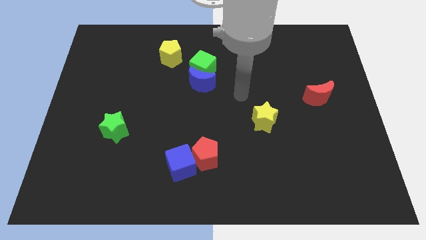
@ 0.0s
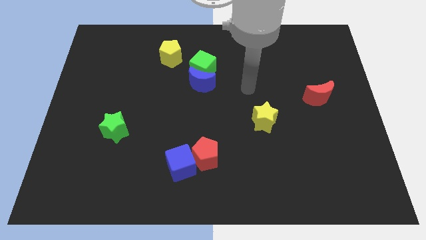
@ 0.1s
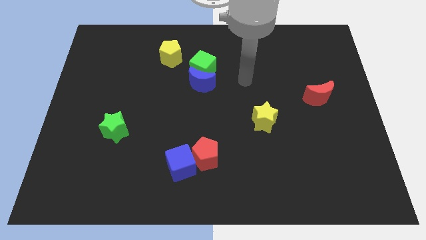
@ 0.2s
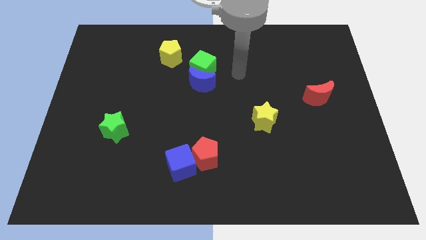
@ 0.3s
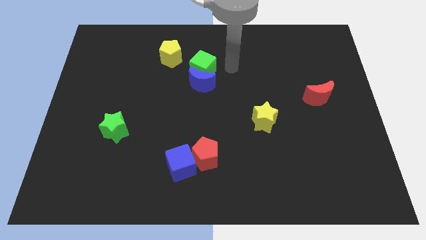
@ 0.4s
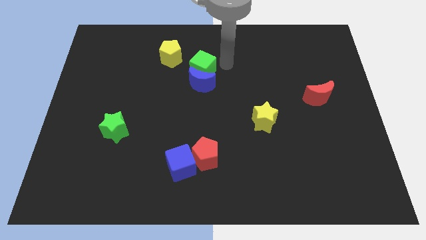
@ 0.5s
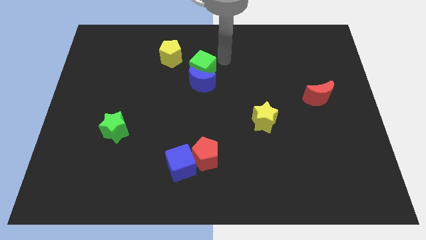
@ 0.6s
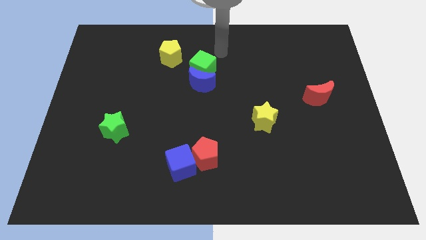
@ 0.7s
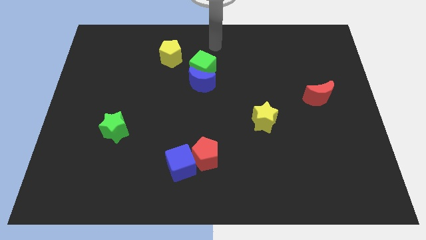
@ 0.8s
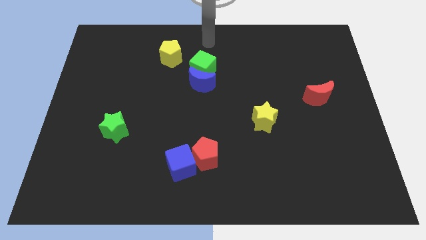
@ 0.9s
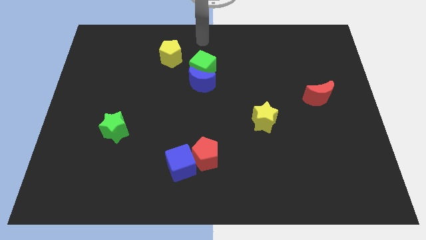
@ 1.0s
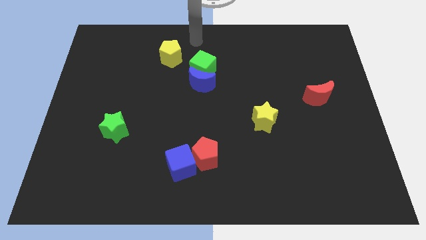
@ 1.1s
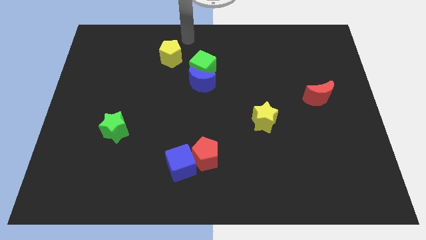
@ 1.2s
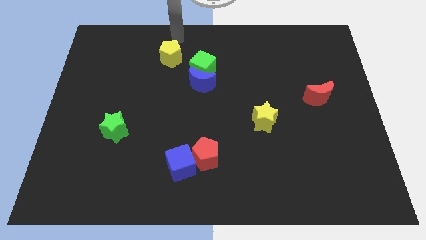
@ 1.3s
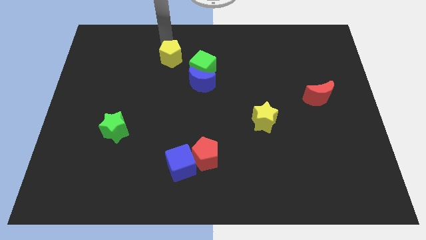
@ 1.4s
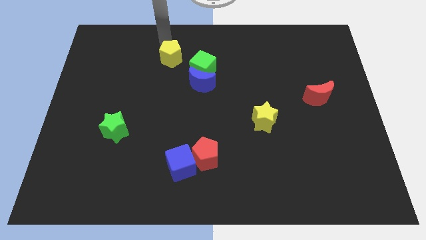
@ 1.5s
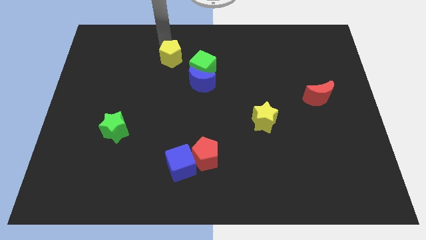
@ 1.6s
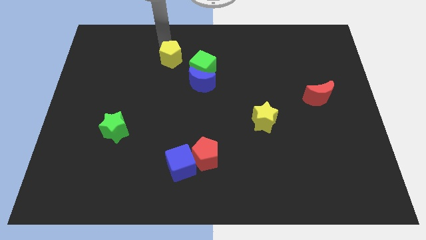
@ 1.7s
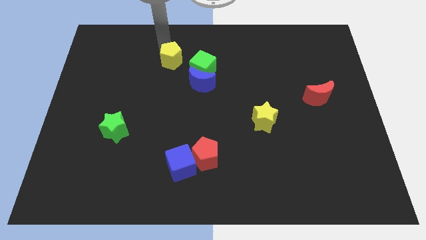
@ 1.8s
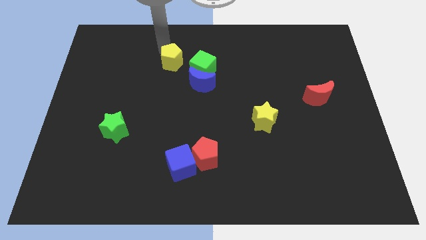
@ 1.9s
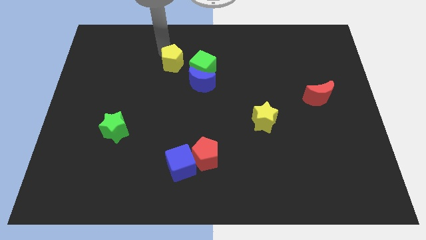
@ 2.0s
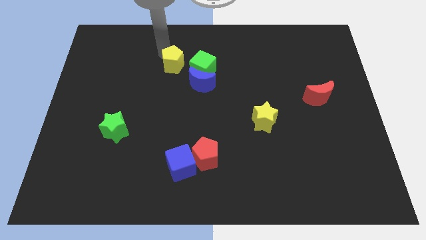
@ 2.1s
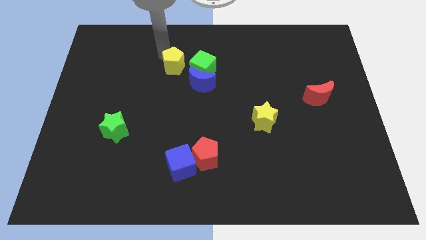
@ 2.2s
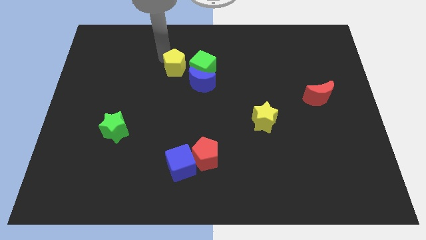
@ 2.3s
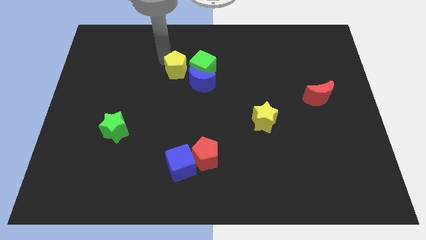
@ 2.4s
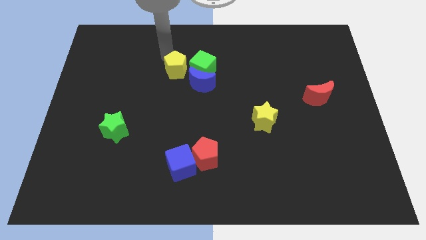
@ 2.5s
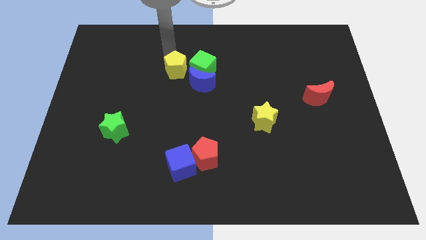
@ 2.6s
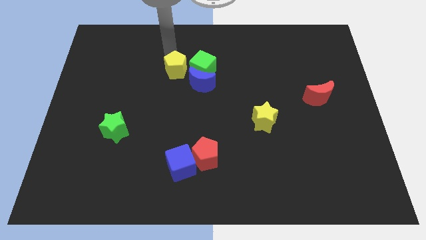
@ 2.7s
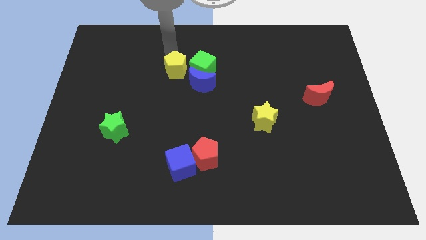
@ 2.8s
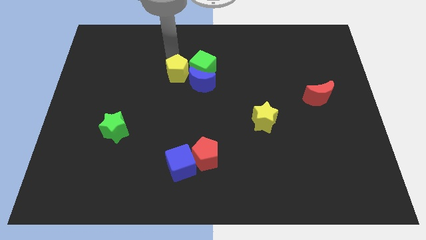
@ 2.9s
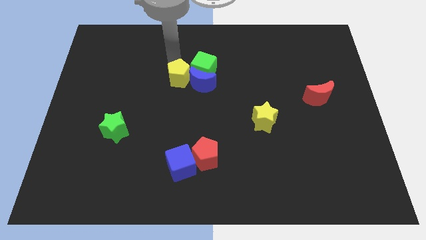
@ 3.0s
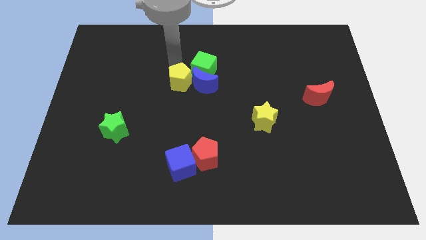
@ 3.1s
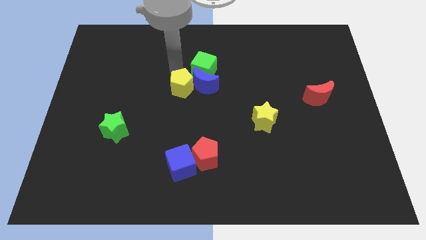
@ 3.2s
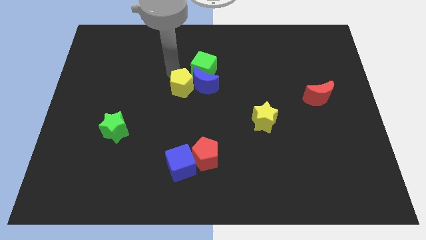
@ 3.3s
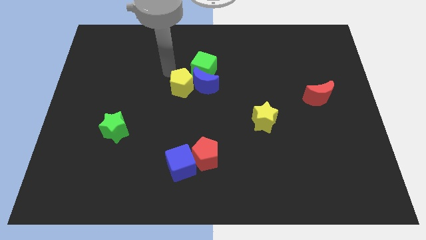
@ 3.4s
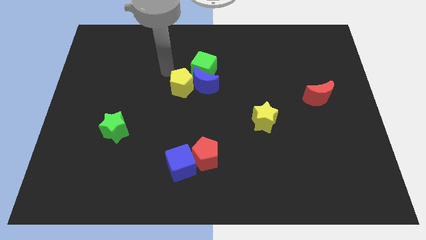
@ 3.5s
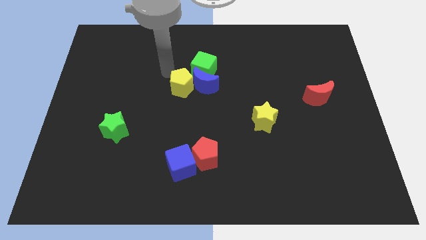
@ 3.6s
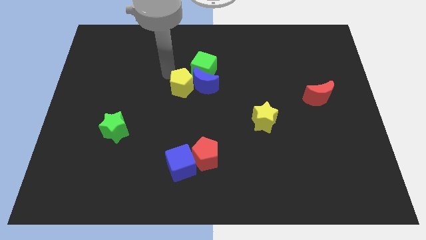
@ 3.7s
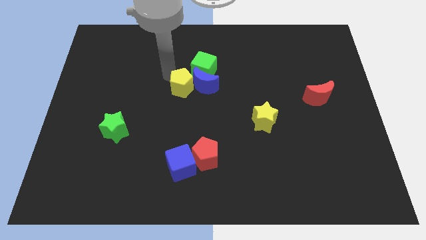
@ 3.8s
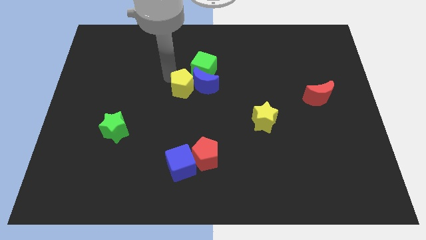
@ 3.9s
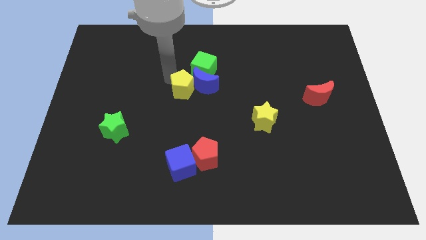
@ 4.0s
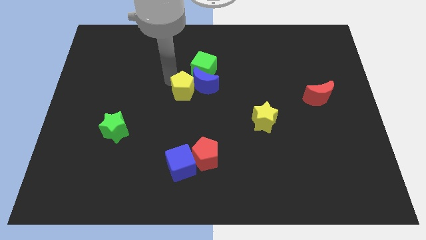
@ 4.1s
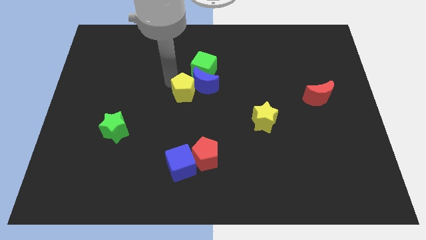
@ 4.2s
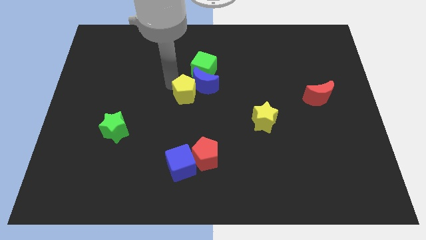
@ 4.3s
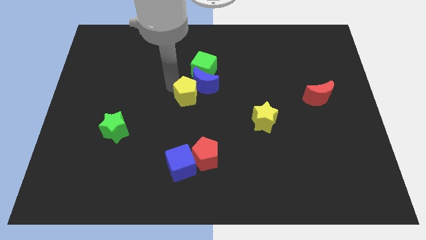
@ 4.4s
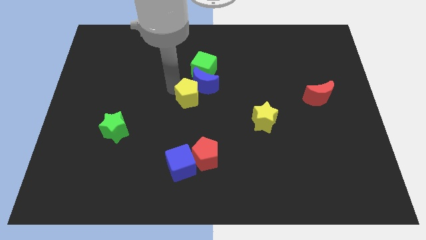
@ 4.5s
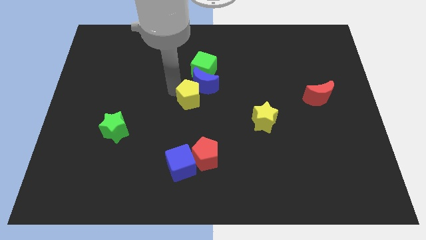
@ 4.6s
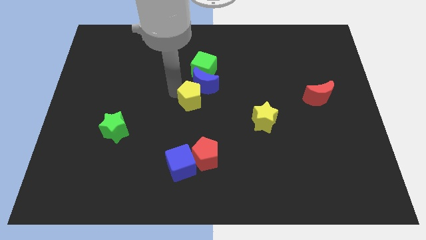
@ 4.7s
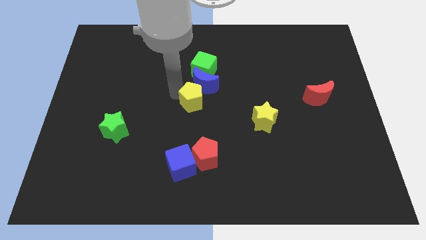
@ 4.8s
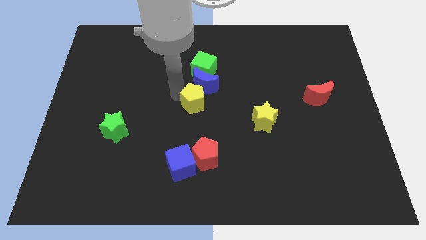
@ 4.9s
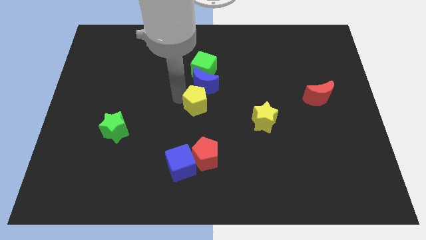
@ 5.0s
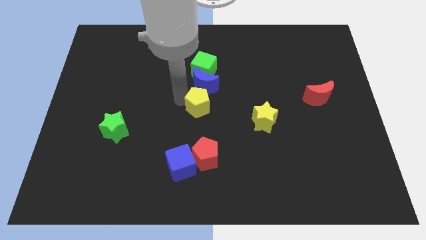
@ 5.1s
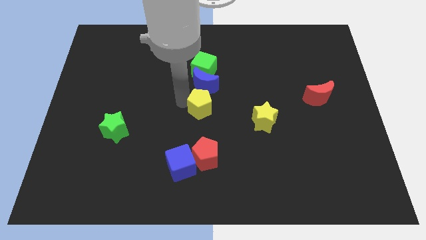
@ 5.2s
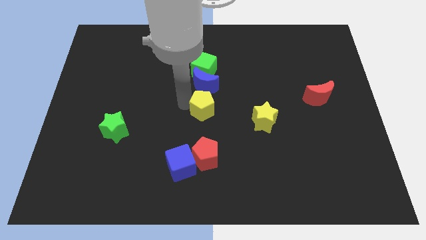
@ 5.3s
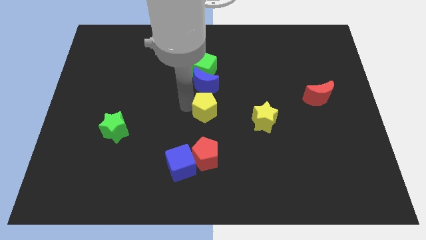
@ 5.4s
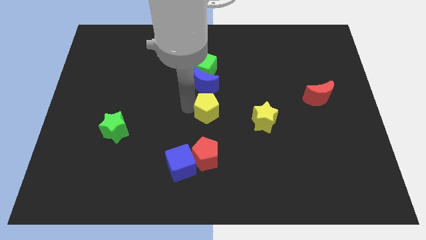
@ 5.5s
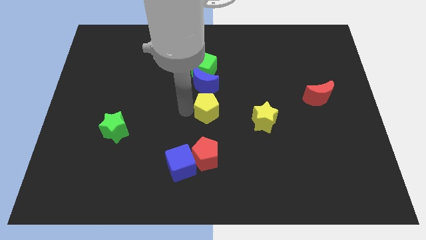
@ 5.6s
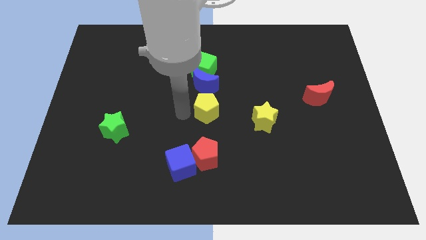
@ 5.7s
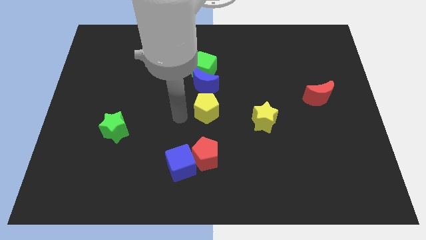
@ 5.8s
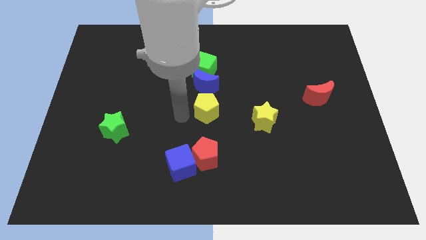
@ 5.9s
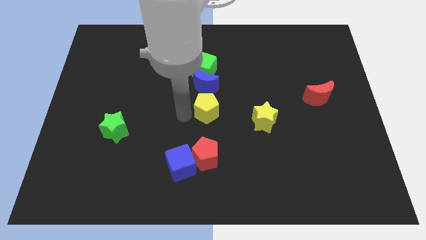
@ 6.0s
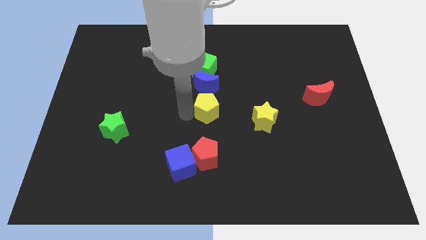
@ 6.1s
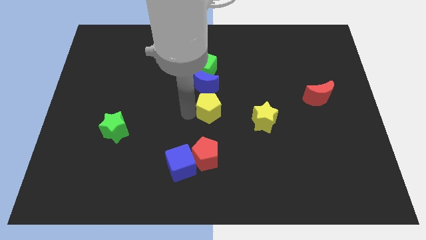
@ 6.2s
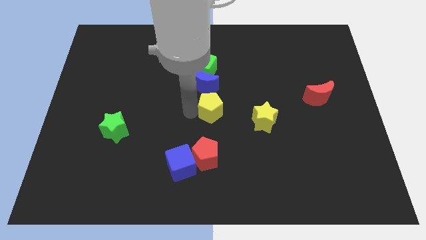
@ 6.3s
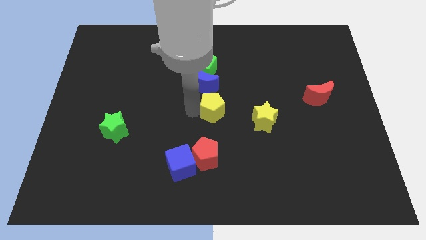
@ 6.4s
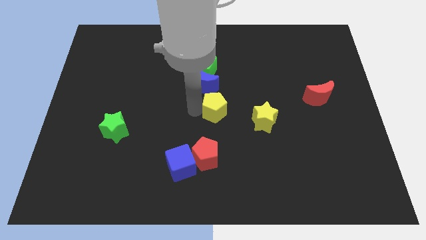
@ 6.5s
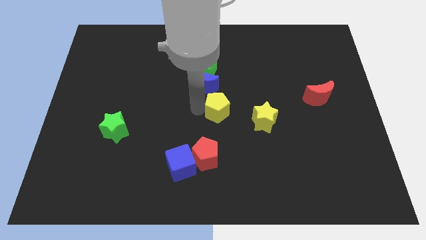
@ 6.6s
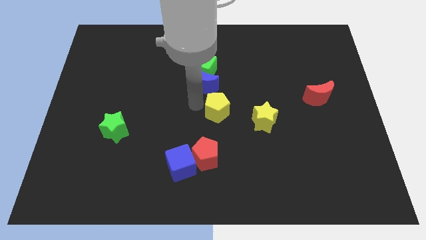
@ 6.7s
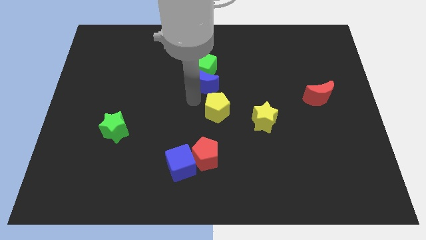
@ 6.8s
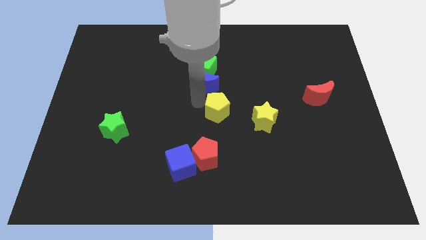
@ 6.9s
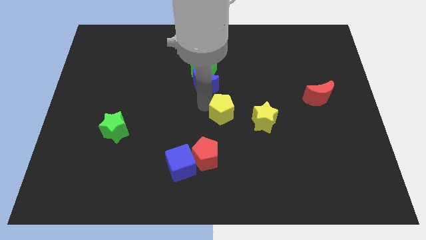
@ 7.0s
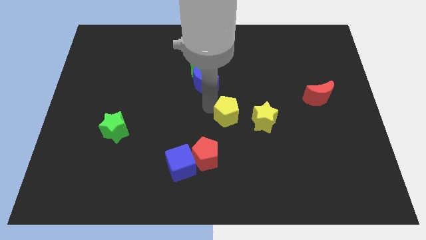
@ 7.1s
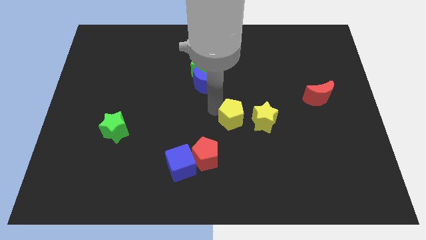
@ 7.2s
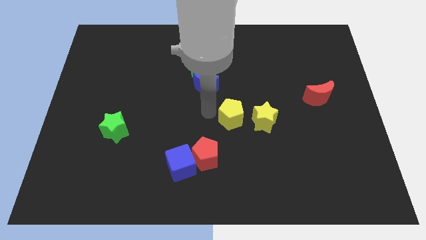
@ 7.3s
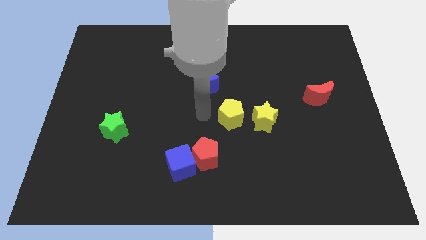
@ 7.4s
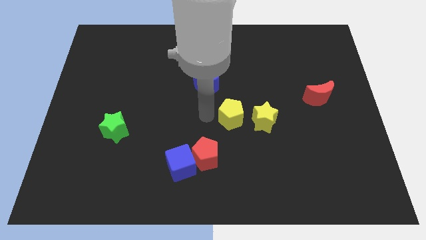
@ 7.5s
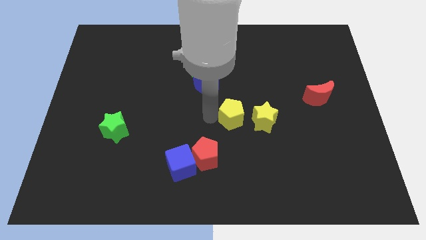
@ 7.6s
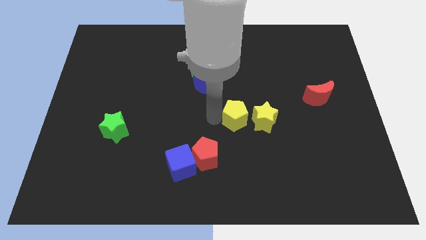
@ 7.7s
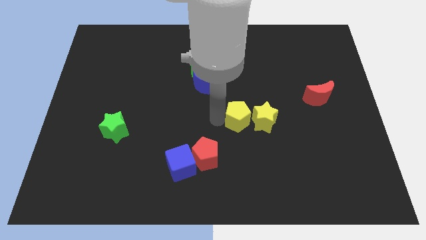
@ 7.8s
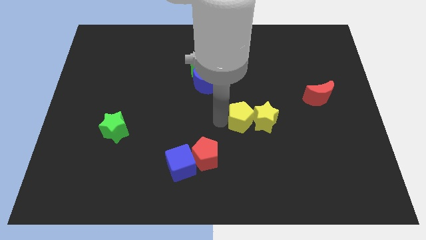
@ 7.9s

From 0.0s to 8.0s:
put the yellow pentagon close to the yellow star

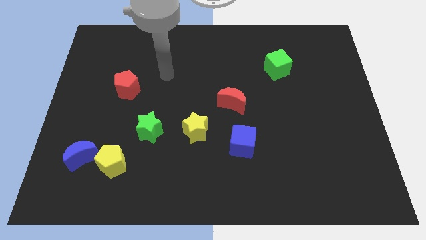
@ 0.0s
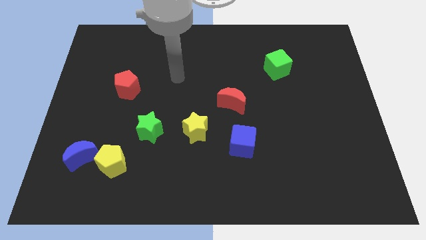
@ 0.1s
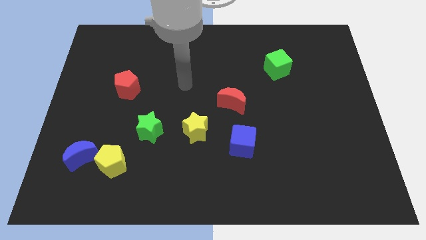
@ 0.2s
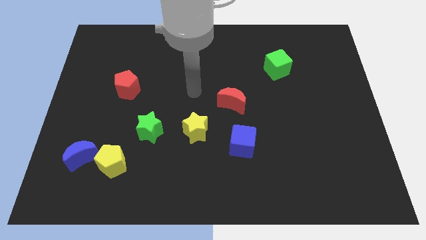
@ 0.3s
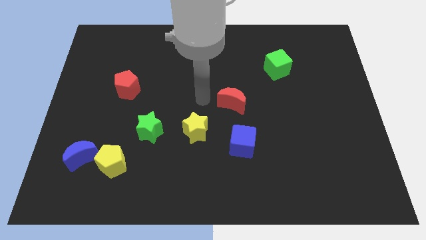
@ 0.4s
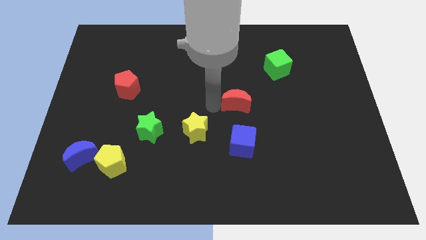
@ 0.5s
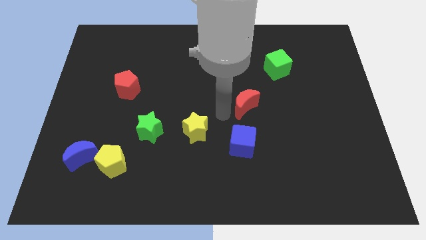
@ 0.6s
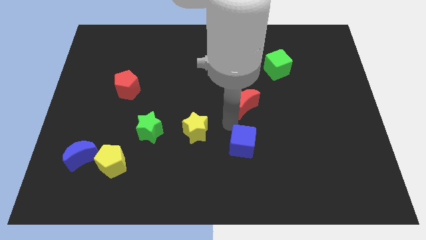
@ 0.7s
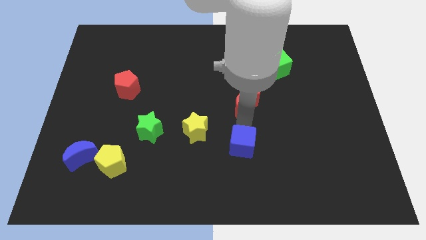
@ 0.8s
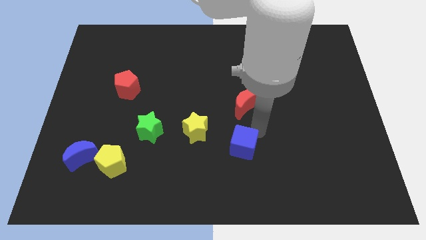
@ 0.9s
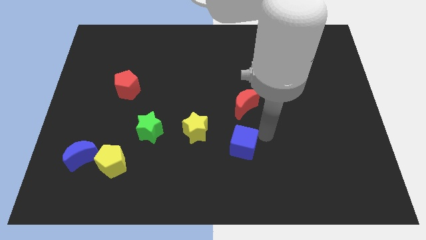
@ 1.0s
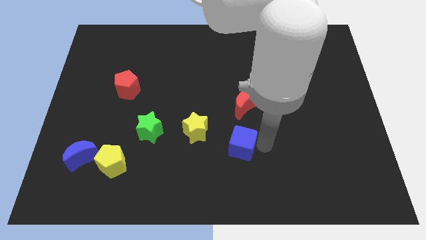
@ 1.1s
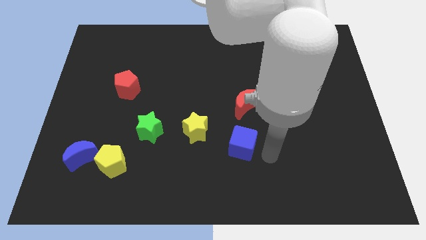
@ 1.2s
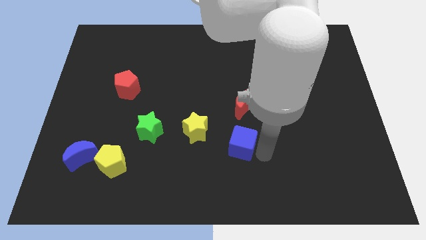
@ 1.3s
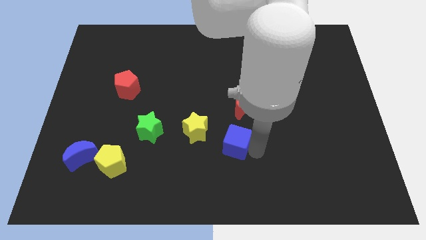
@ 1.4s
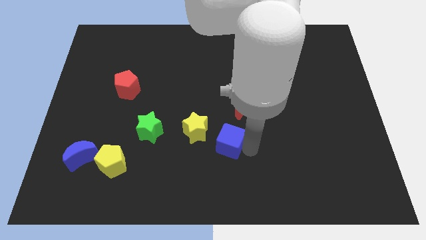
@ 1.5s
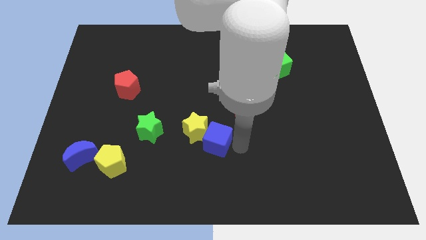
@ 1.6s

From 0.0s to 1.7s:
slide the blue cube to the yellow star
